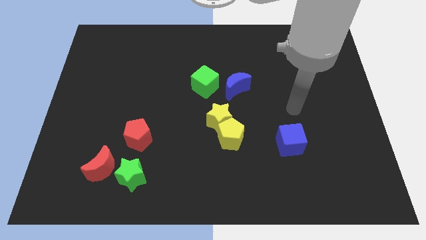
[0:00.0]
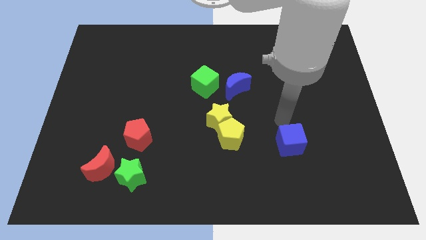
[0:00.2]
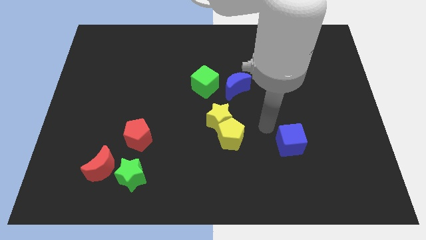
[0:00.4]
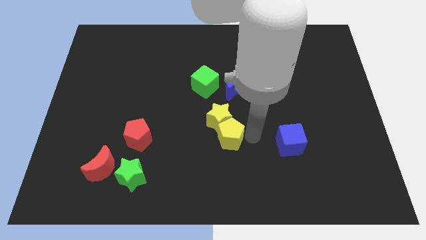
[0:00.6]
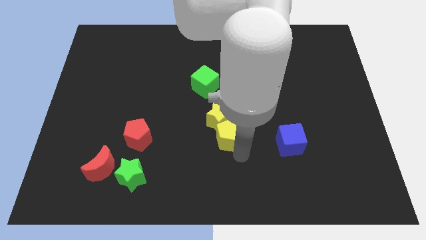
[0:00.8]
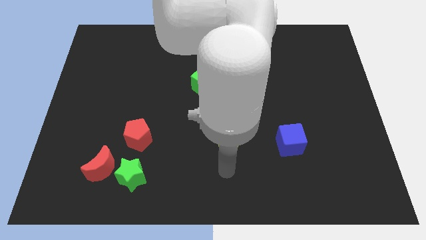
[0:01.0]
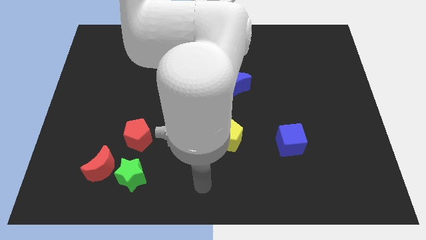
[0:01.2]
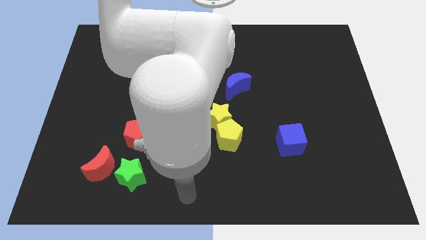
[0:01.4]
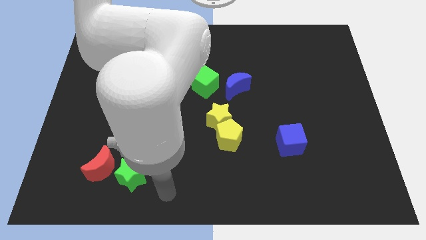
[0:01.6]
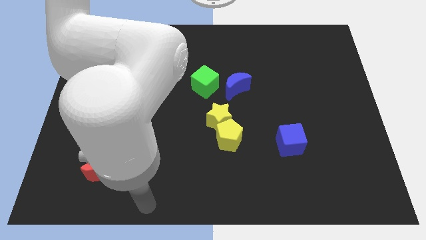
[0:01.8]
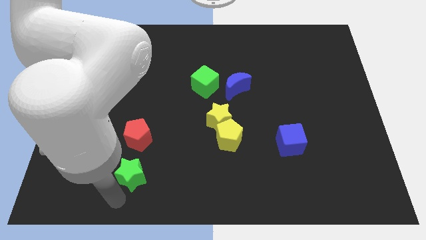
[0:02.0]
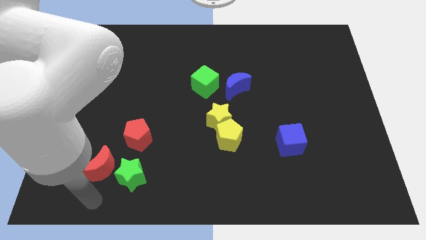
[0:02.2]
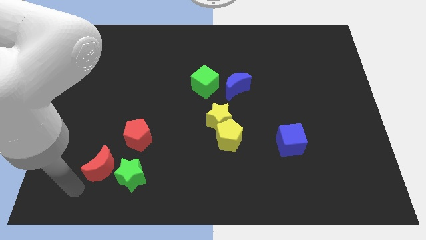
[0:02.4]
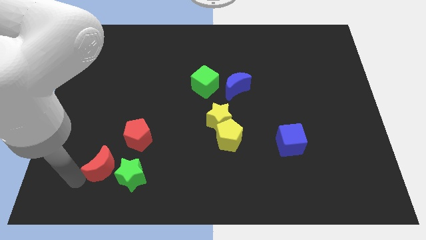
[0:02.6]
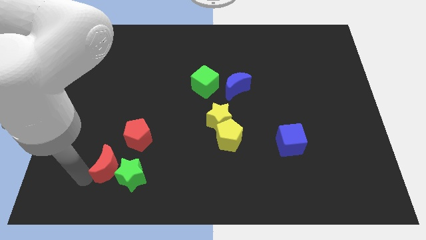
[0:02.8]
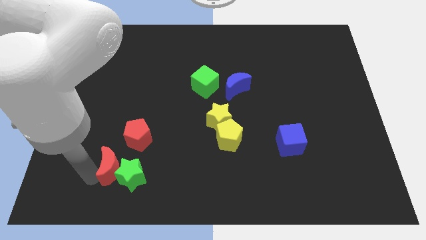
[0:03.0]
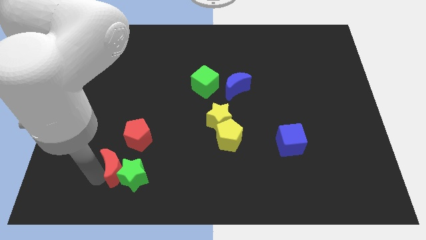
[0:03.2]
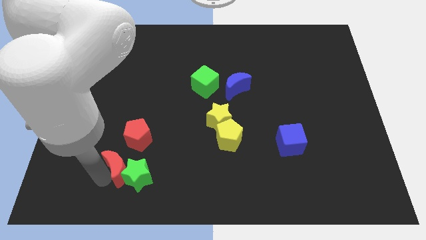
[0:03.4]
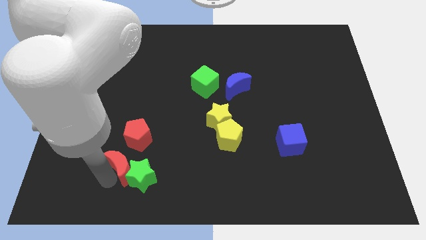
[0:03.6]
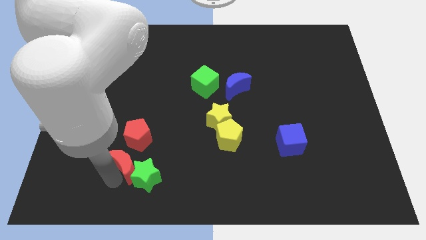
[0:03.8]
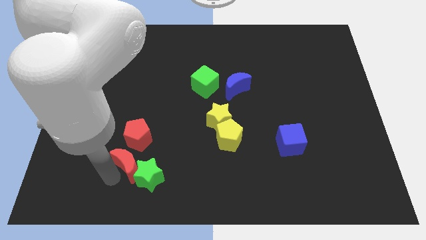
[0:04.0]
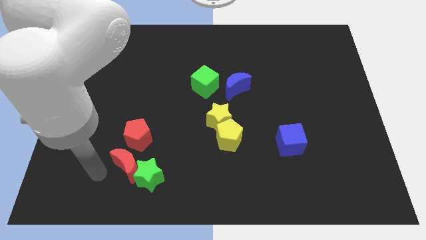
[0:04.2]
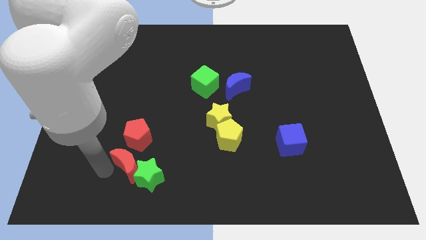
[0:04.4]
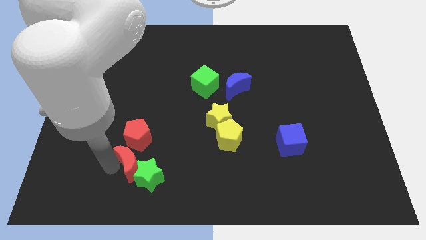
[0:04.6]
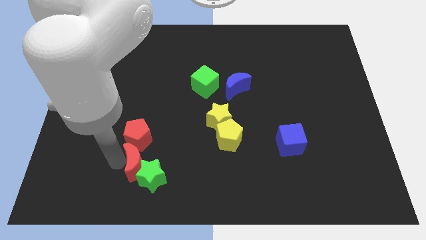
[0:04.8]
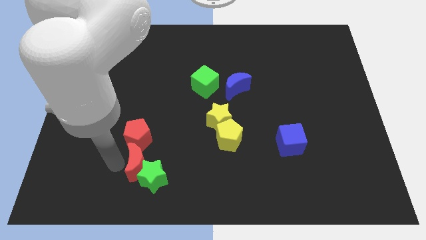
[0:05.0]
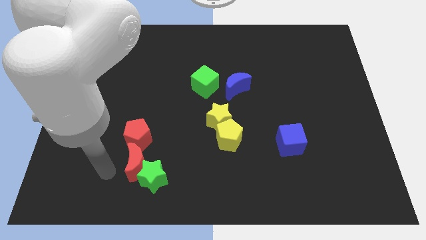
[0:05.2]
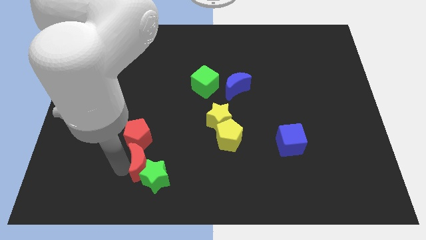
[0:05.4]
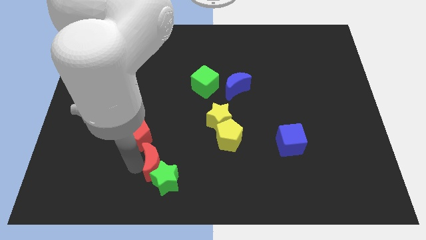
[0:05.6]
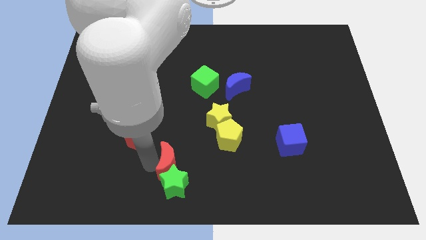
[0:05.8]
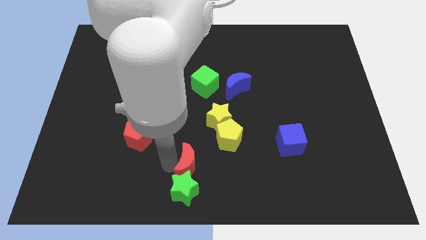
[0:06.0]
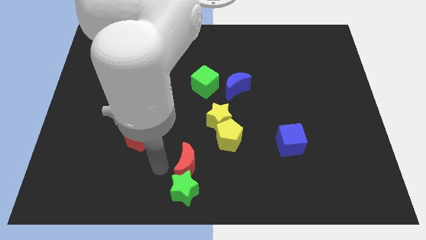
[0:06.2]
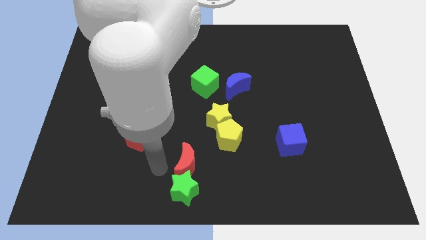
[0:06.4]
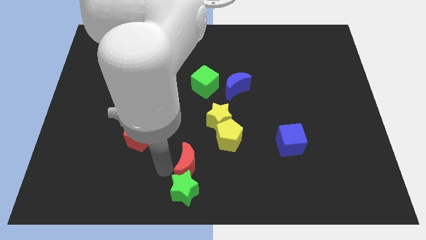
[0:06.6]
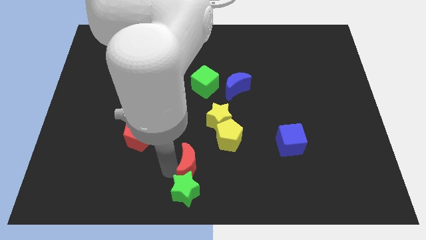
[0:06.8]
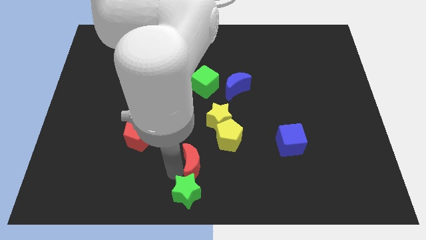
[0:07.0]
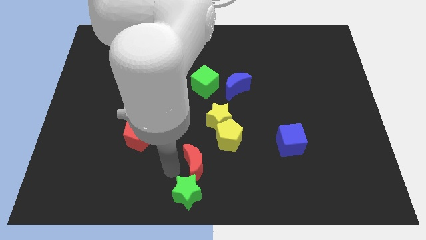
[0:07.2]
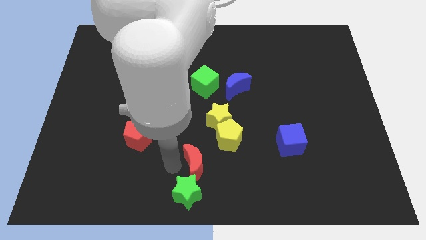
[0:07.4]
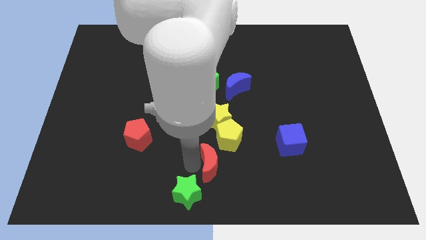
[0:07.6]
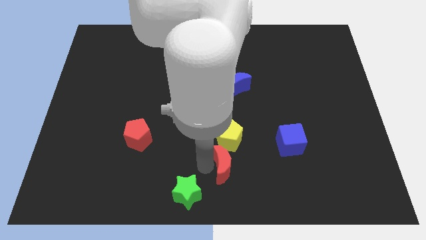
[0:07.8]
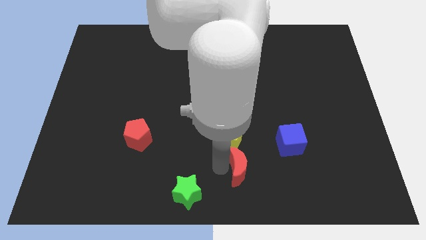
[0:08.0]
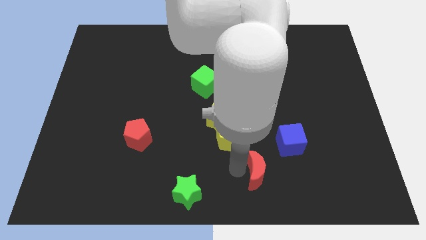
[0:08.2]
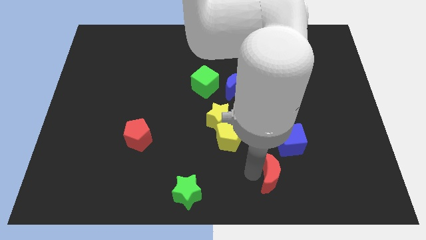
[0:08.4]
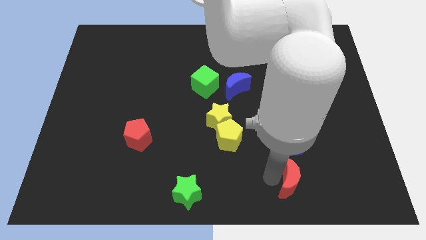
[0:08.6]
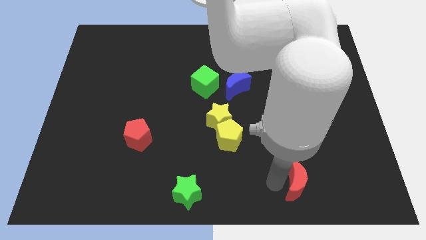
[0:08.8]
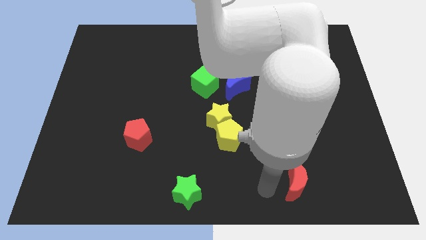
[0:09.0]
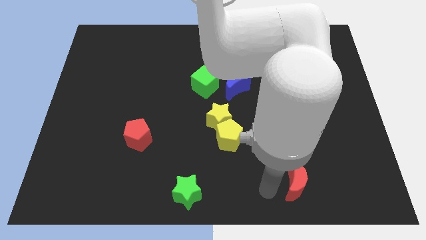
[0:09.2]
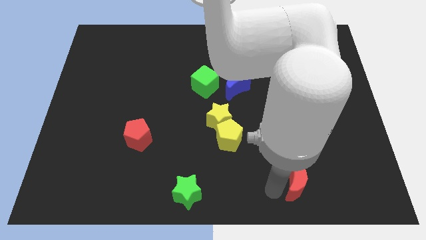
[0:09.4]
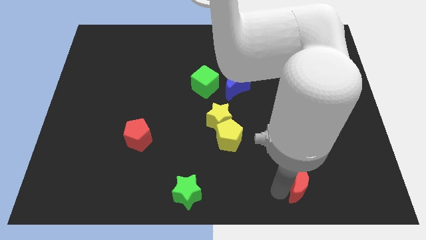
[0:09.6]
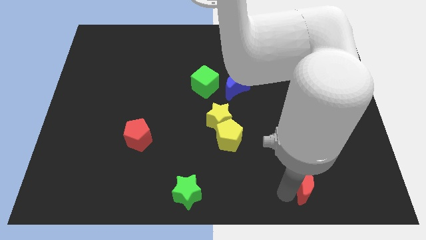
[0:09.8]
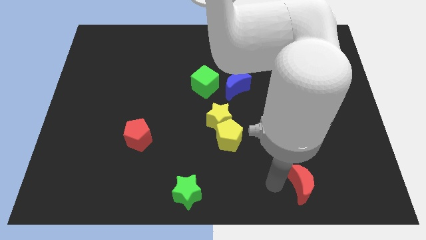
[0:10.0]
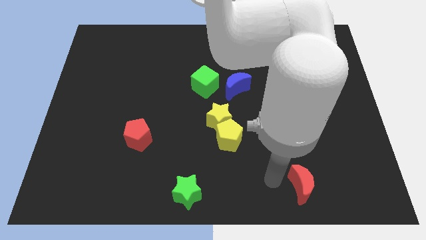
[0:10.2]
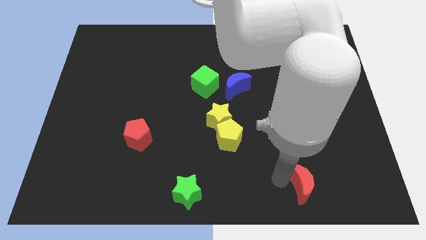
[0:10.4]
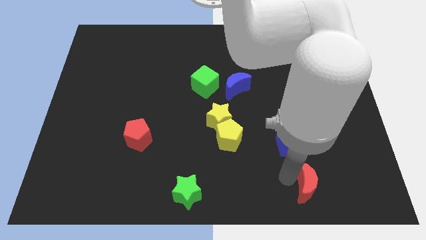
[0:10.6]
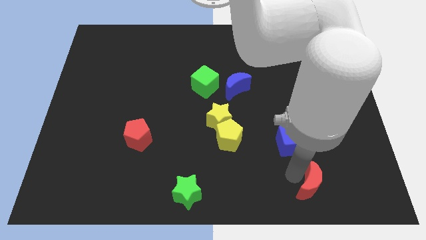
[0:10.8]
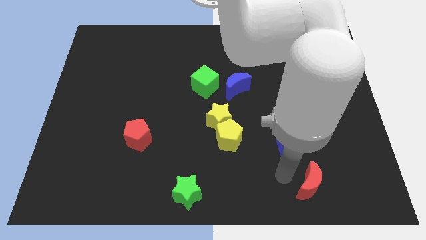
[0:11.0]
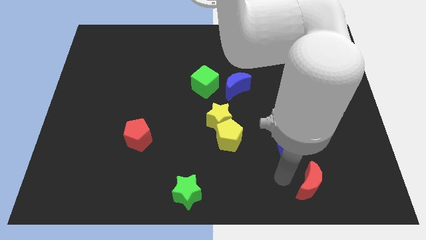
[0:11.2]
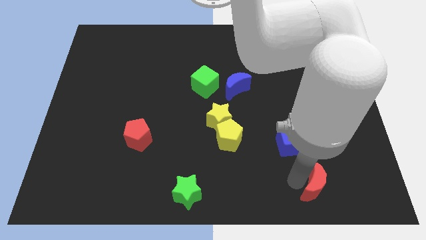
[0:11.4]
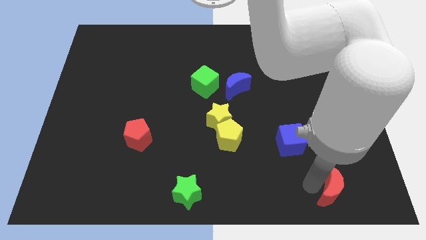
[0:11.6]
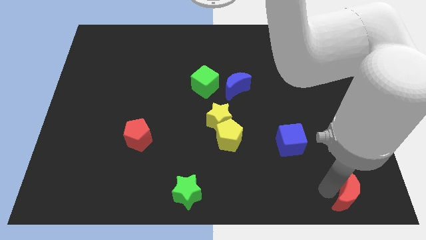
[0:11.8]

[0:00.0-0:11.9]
put the red moon to the lower right corner
